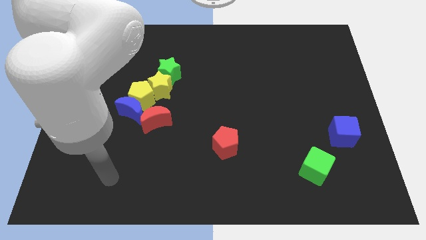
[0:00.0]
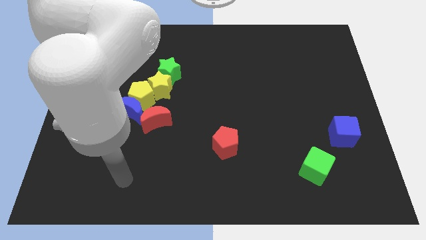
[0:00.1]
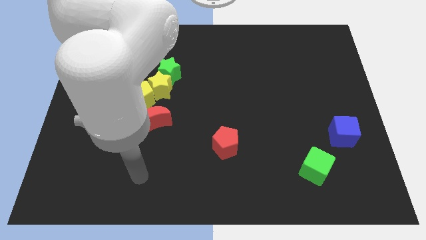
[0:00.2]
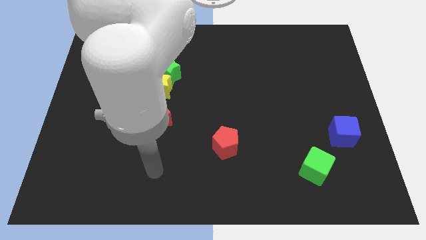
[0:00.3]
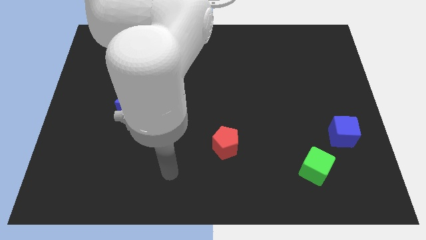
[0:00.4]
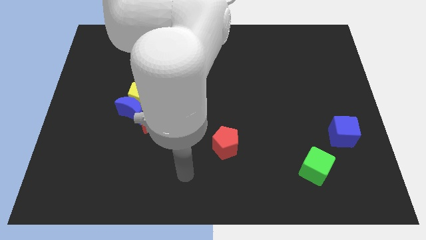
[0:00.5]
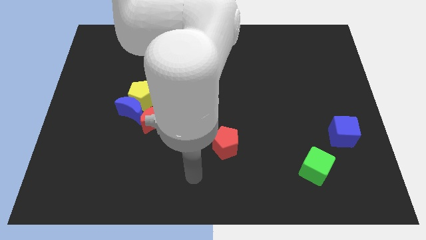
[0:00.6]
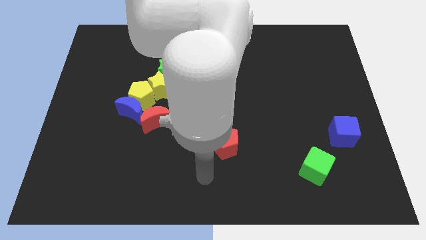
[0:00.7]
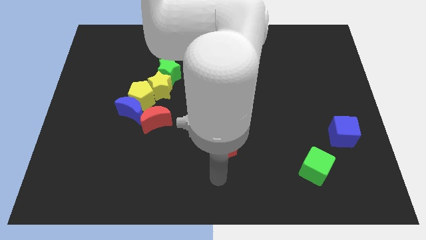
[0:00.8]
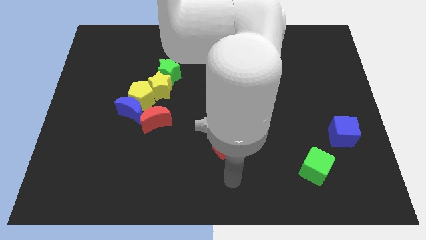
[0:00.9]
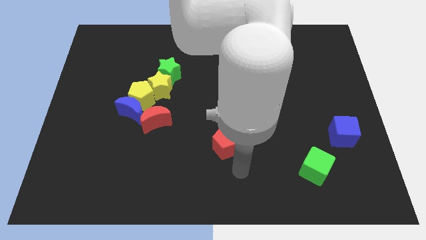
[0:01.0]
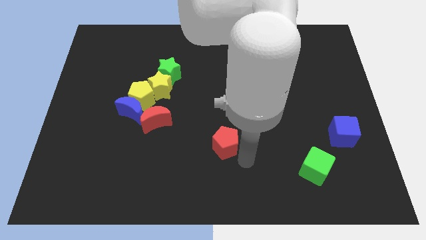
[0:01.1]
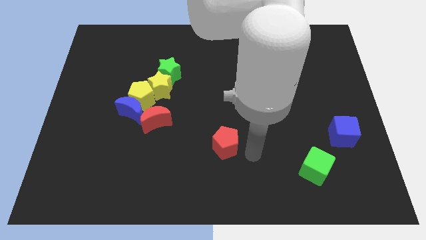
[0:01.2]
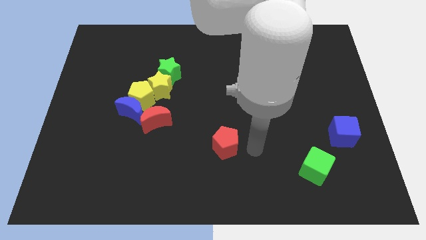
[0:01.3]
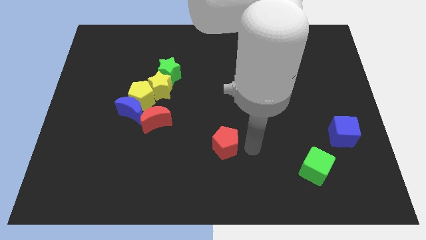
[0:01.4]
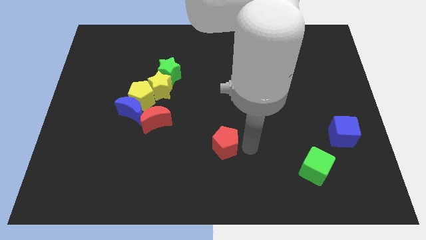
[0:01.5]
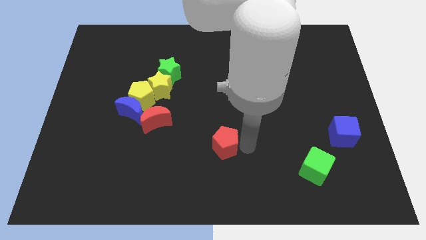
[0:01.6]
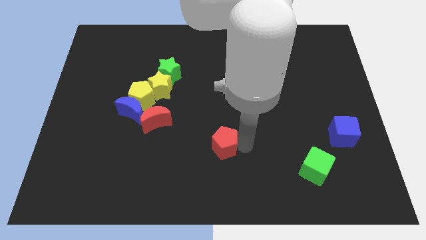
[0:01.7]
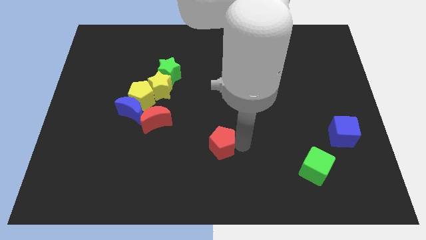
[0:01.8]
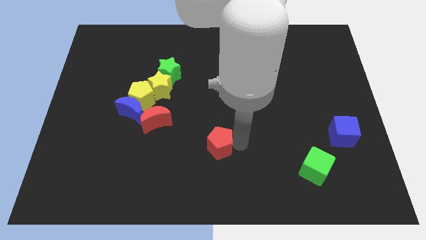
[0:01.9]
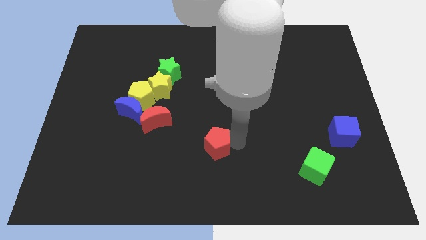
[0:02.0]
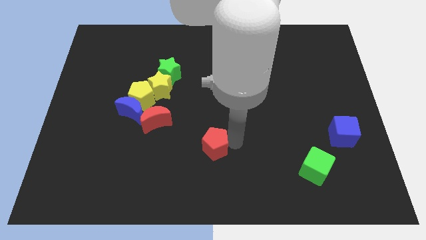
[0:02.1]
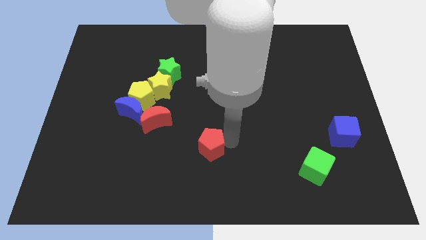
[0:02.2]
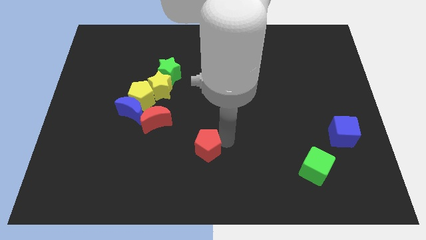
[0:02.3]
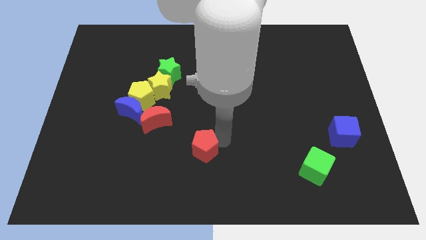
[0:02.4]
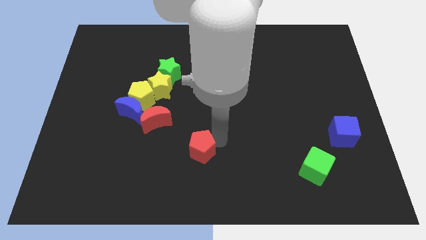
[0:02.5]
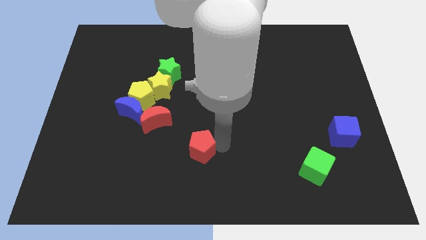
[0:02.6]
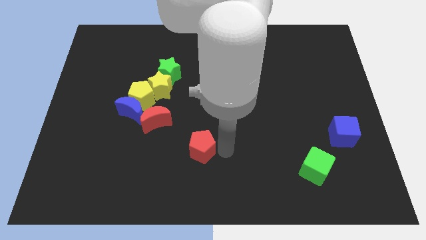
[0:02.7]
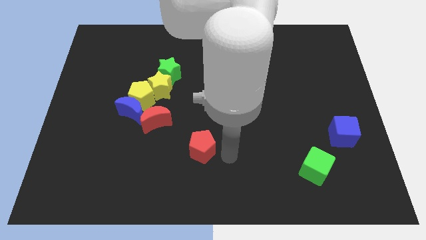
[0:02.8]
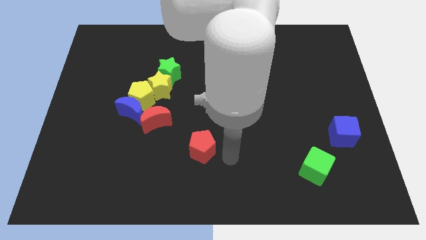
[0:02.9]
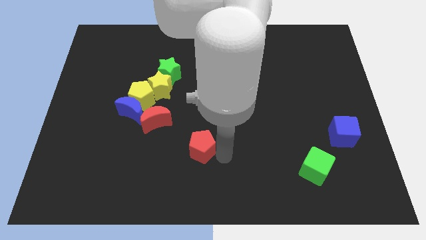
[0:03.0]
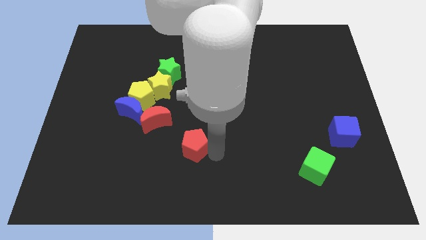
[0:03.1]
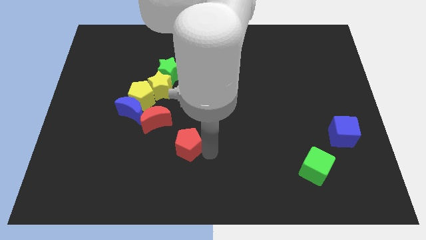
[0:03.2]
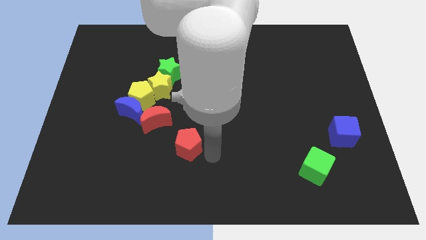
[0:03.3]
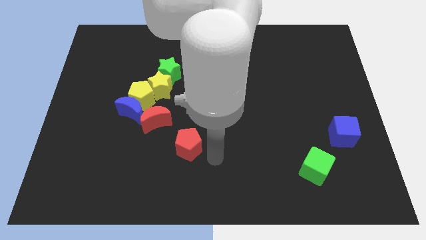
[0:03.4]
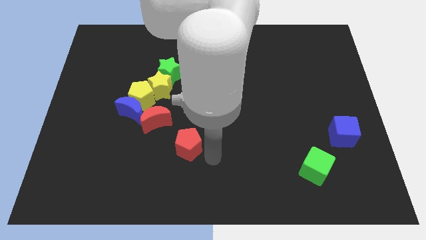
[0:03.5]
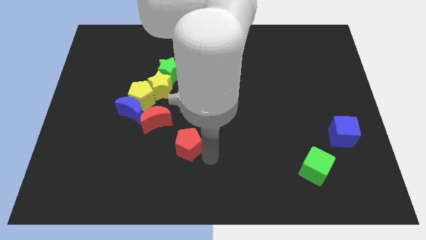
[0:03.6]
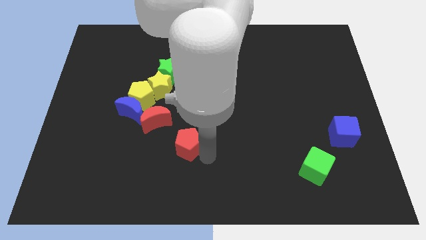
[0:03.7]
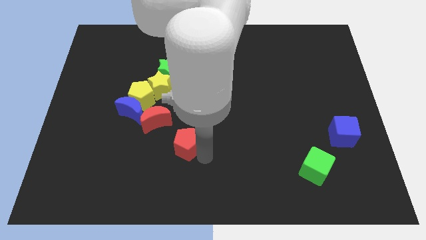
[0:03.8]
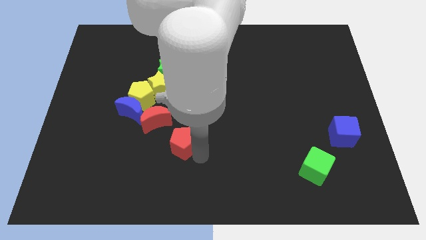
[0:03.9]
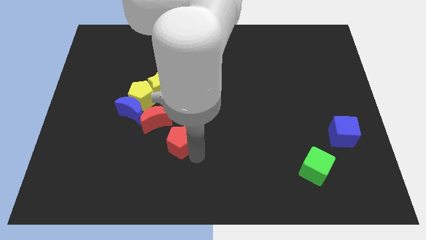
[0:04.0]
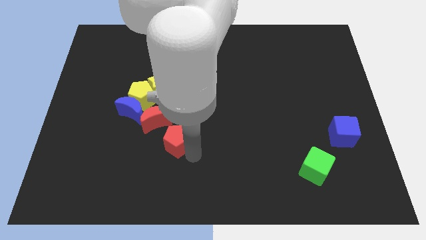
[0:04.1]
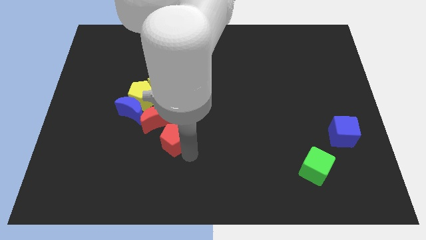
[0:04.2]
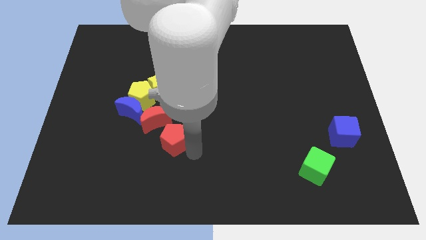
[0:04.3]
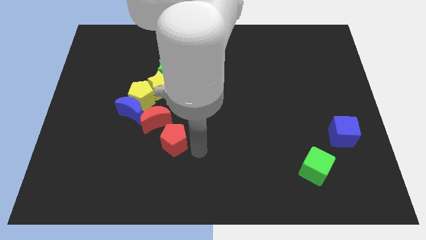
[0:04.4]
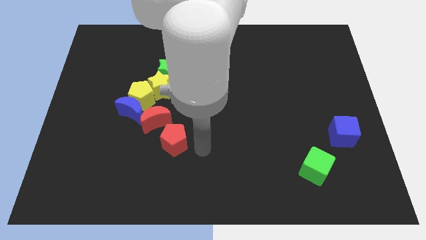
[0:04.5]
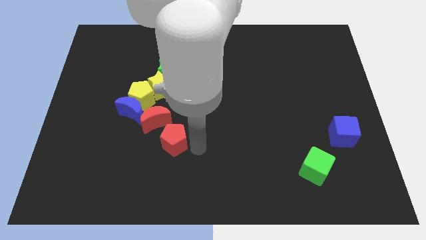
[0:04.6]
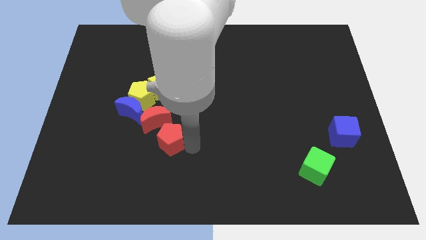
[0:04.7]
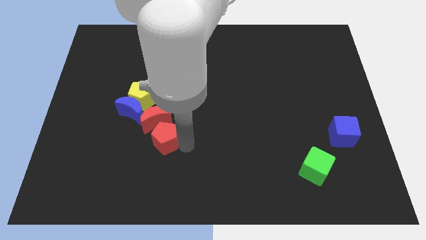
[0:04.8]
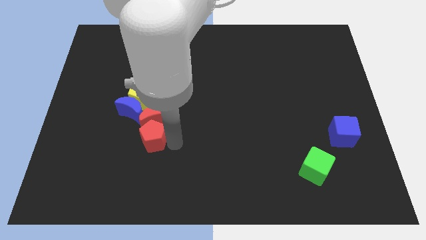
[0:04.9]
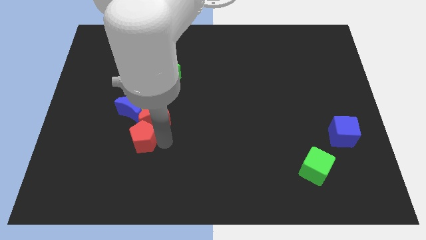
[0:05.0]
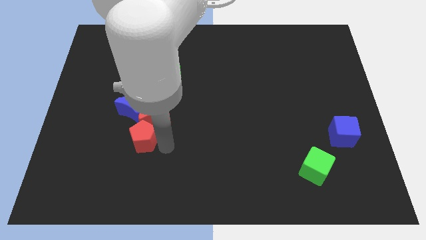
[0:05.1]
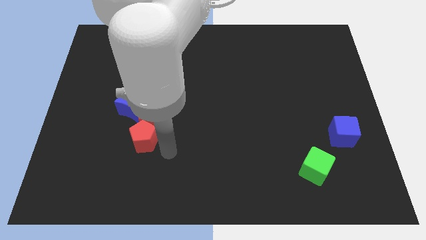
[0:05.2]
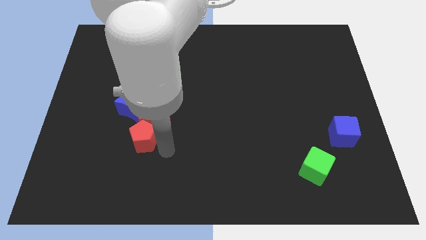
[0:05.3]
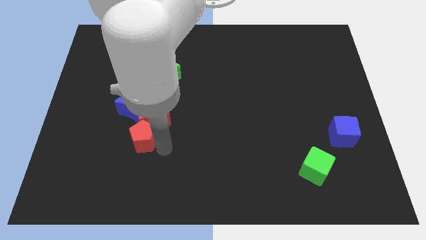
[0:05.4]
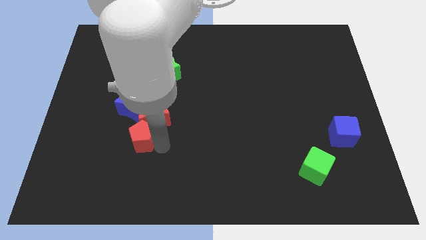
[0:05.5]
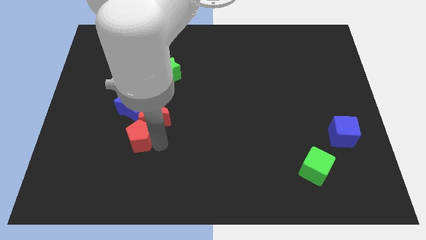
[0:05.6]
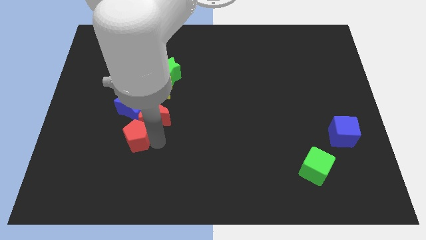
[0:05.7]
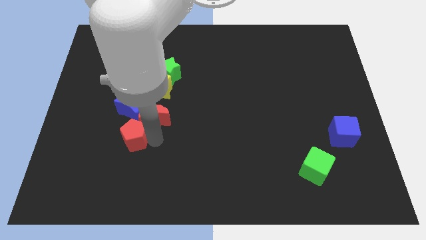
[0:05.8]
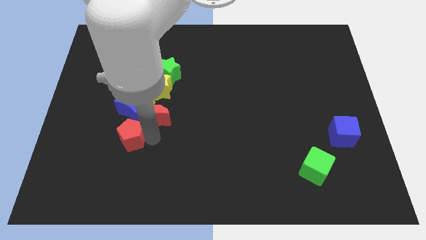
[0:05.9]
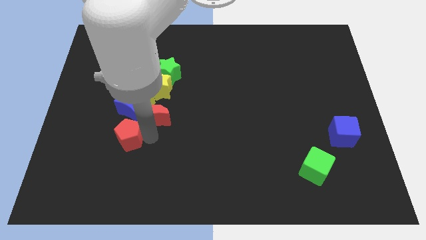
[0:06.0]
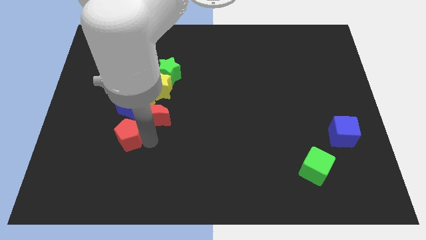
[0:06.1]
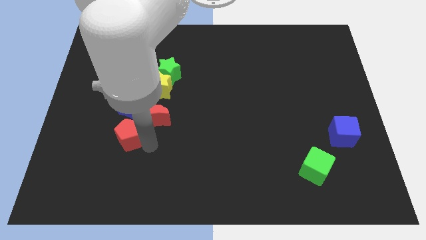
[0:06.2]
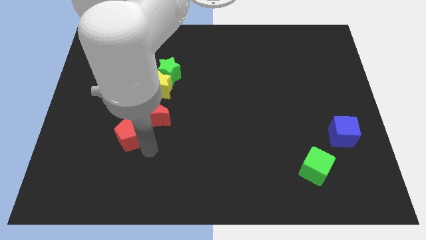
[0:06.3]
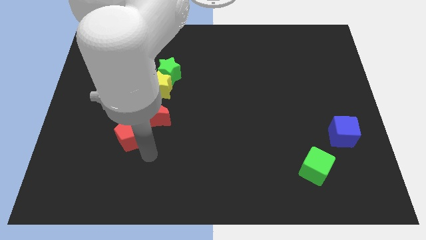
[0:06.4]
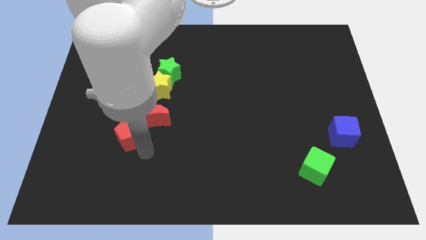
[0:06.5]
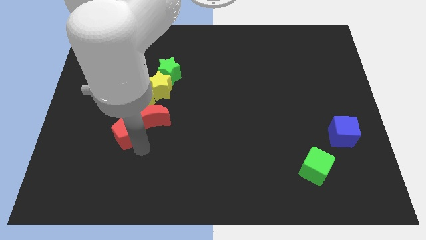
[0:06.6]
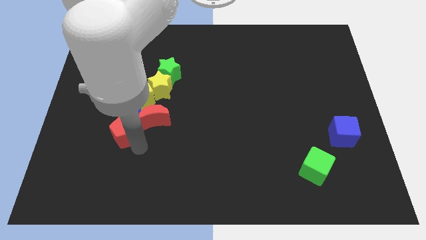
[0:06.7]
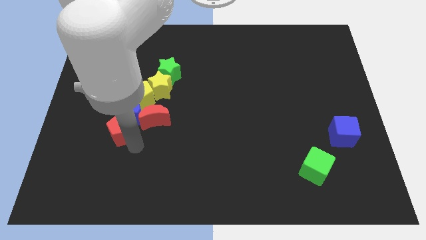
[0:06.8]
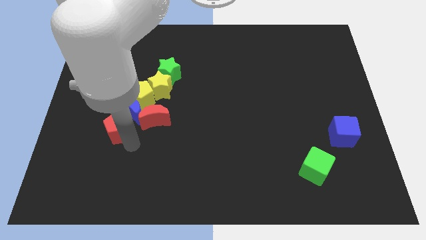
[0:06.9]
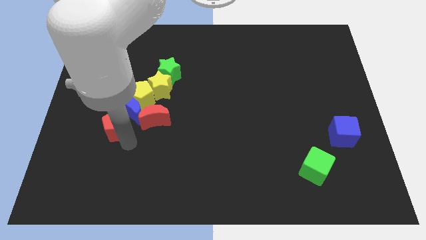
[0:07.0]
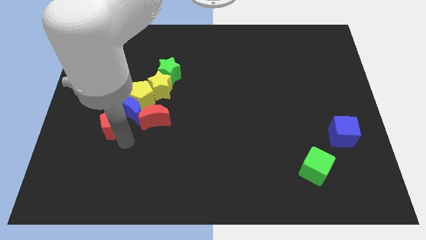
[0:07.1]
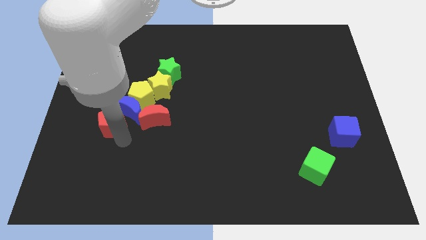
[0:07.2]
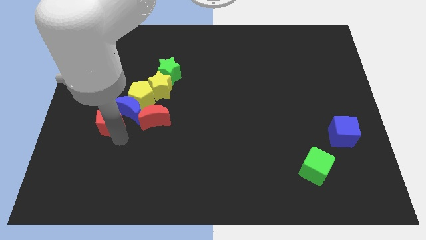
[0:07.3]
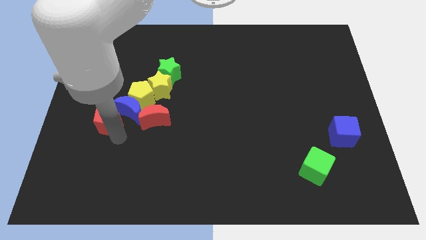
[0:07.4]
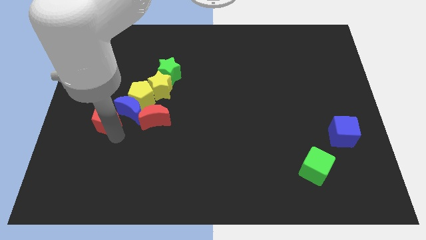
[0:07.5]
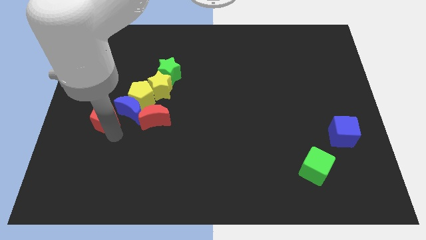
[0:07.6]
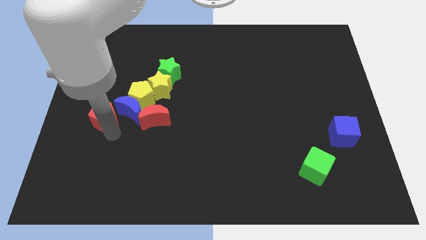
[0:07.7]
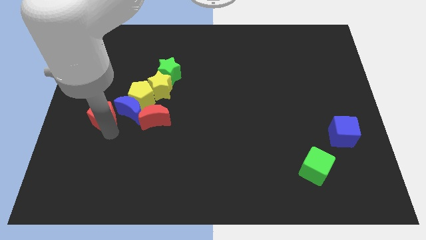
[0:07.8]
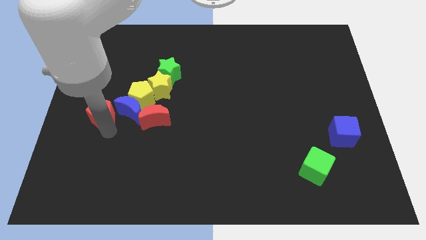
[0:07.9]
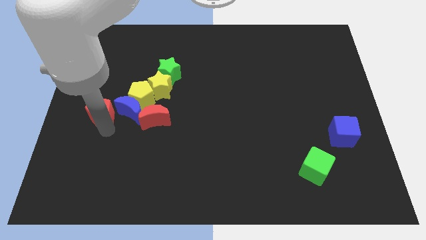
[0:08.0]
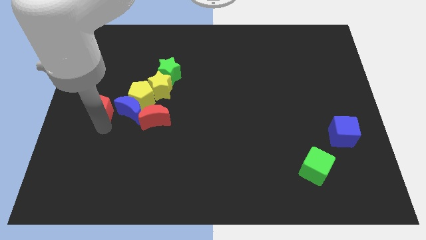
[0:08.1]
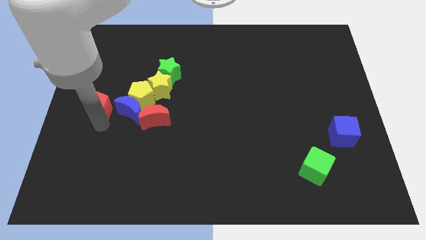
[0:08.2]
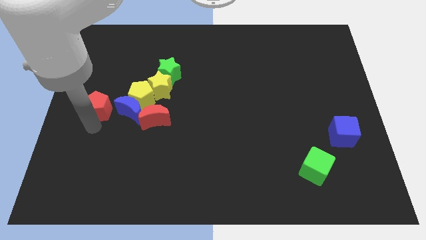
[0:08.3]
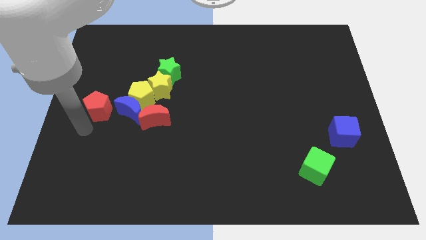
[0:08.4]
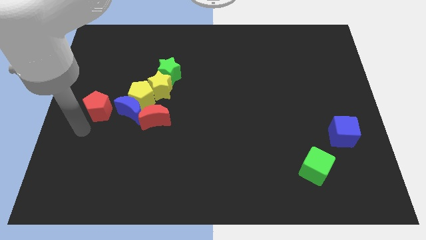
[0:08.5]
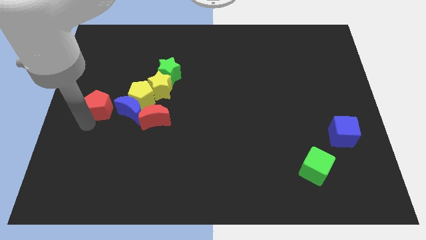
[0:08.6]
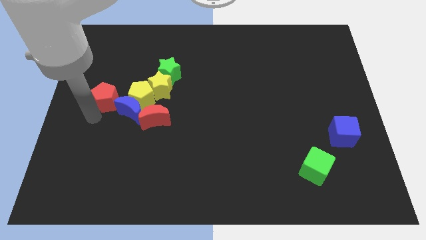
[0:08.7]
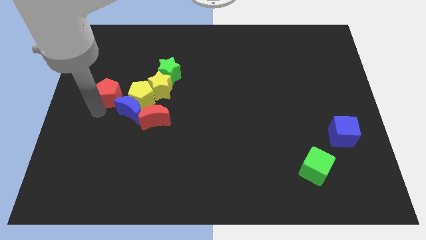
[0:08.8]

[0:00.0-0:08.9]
push the red pentagon diagonally up and to the left of the yellow pentagon
